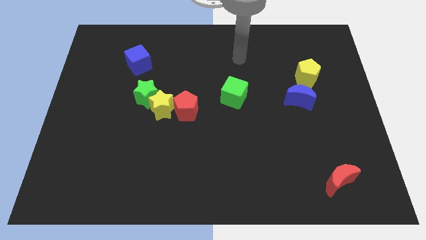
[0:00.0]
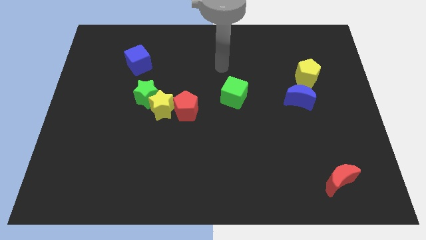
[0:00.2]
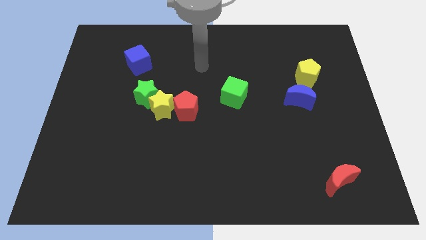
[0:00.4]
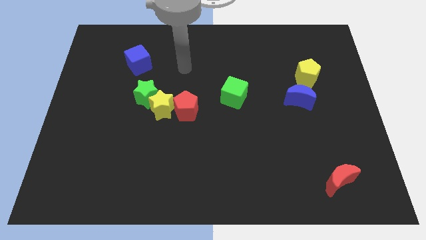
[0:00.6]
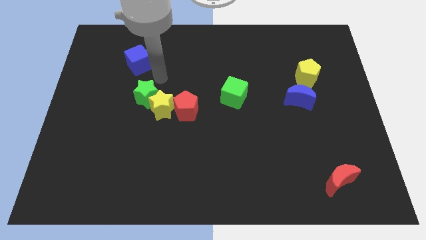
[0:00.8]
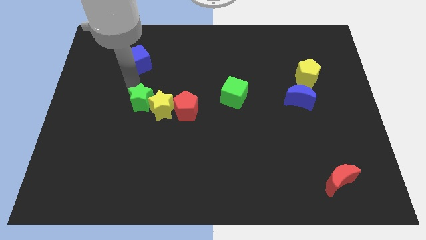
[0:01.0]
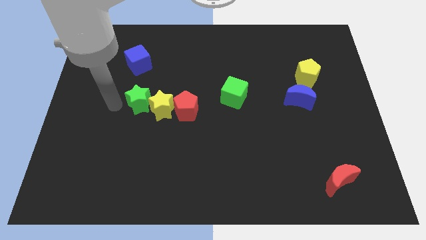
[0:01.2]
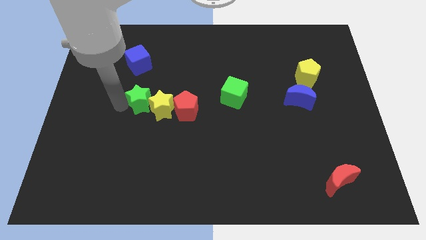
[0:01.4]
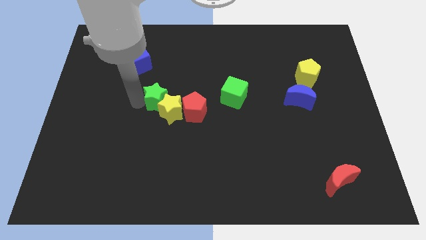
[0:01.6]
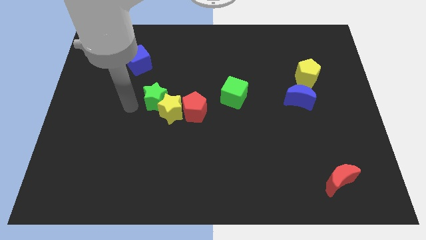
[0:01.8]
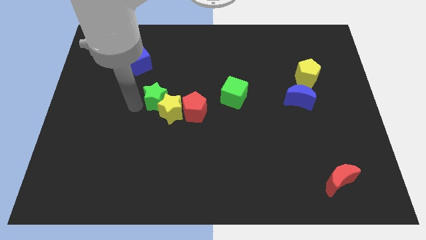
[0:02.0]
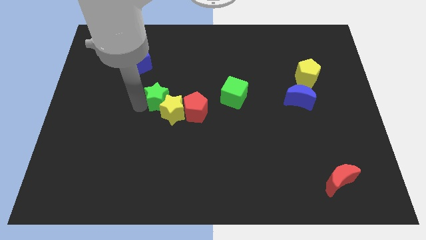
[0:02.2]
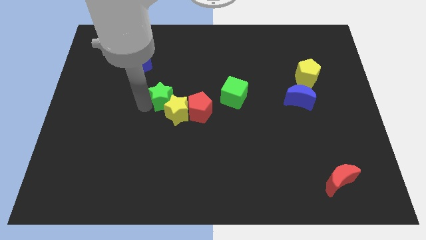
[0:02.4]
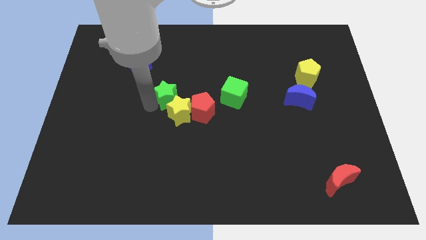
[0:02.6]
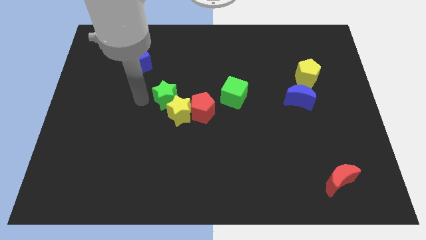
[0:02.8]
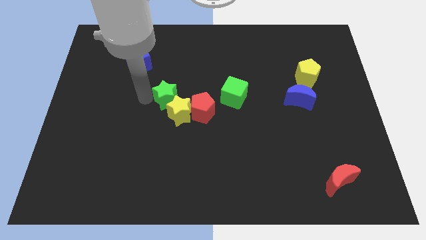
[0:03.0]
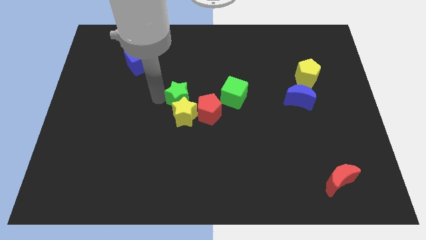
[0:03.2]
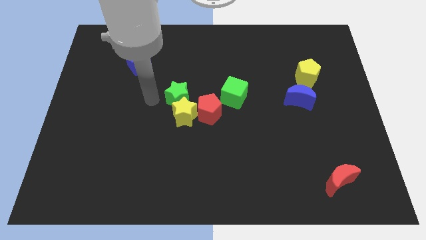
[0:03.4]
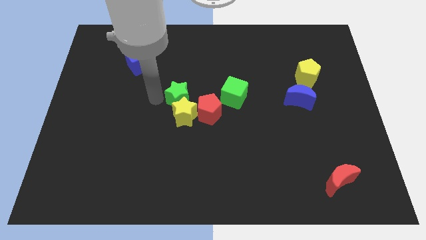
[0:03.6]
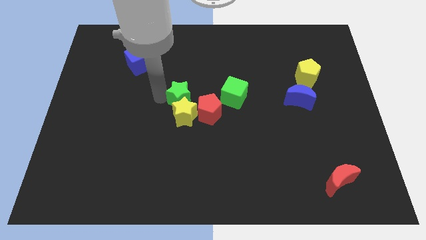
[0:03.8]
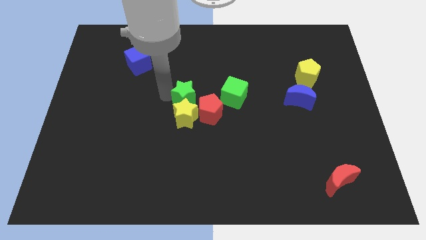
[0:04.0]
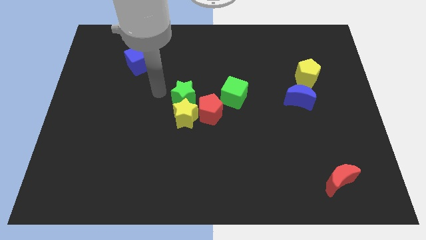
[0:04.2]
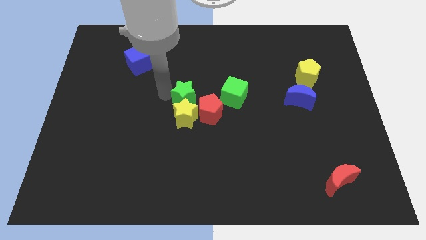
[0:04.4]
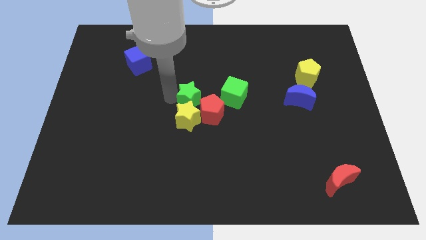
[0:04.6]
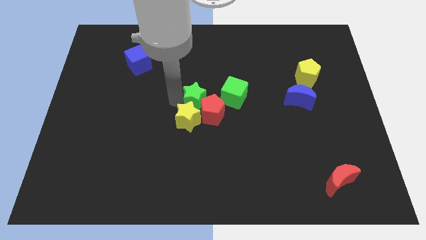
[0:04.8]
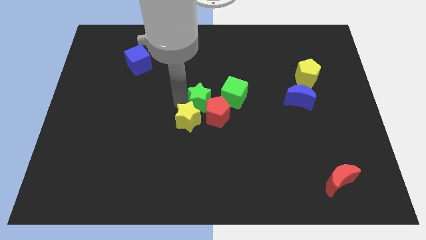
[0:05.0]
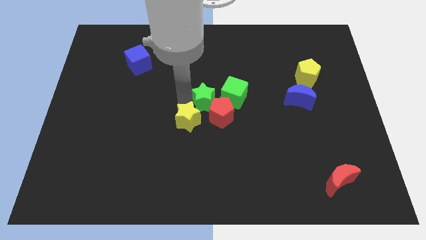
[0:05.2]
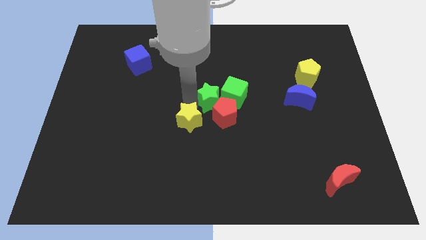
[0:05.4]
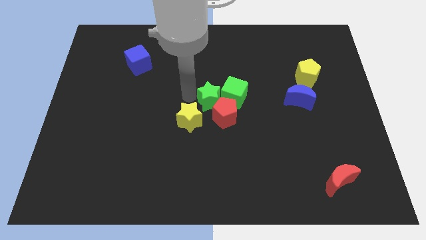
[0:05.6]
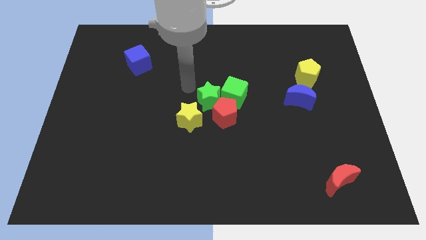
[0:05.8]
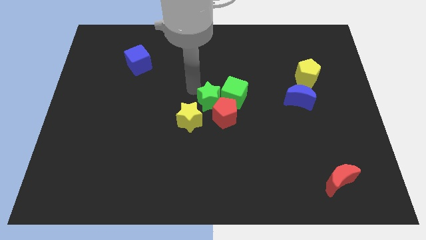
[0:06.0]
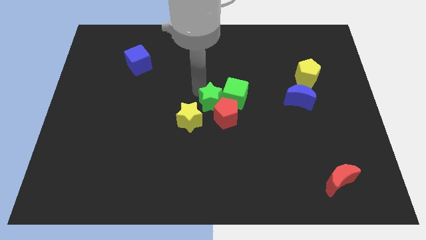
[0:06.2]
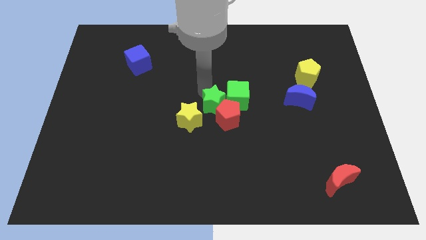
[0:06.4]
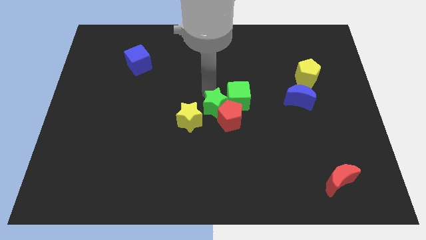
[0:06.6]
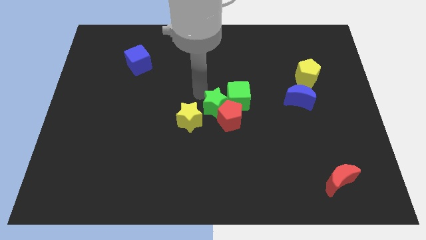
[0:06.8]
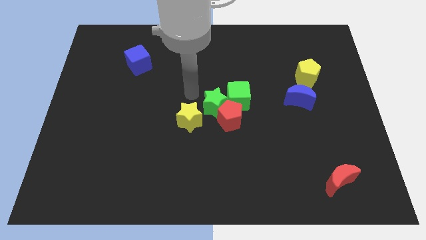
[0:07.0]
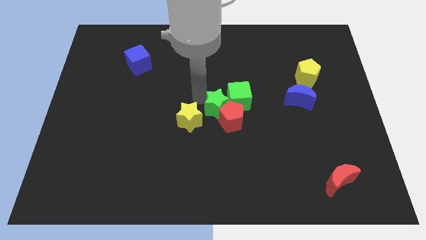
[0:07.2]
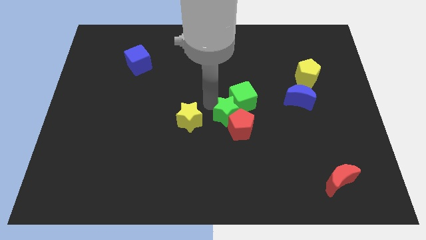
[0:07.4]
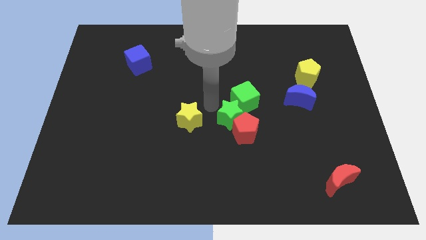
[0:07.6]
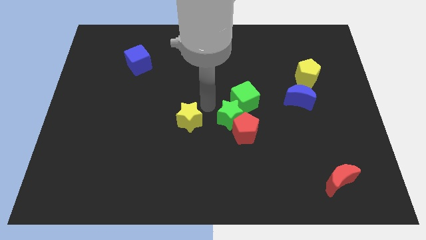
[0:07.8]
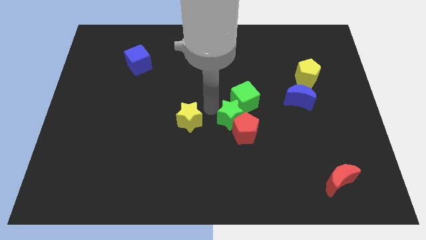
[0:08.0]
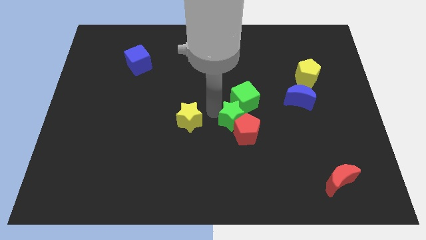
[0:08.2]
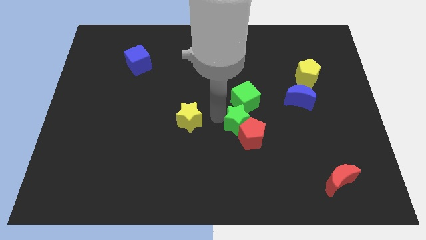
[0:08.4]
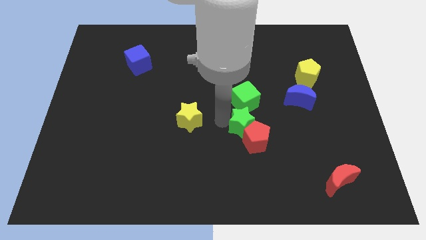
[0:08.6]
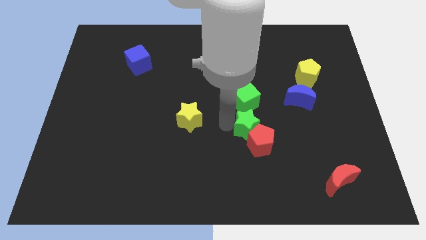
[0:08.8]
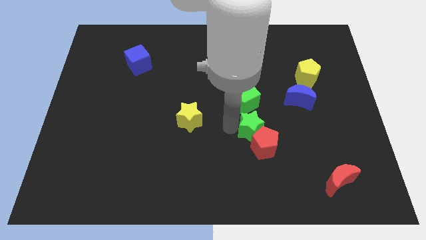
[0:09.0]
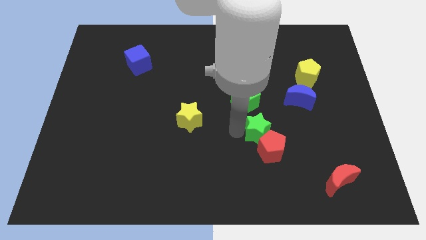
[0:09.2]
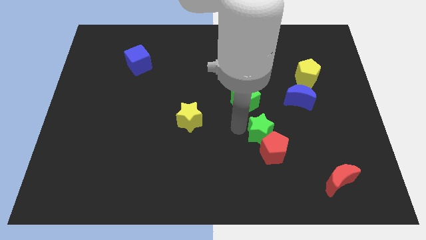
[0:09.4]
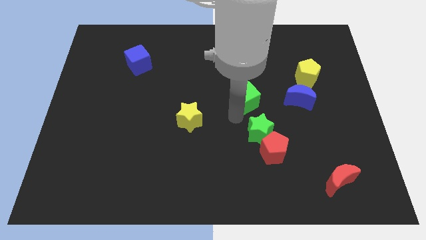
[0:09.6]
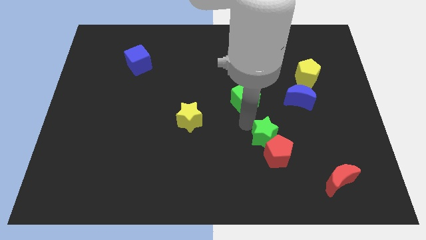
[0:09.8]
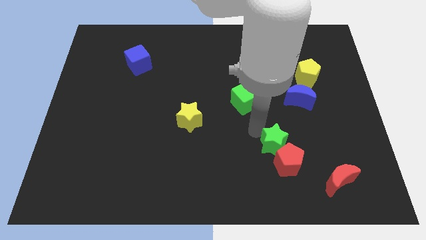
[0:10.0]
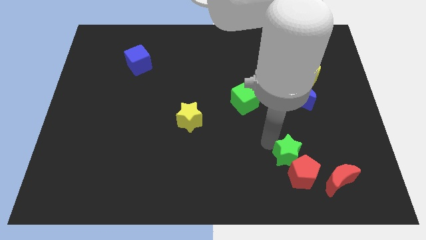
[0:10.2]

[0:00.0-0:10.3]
move the green star diagonally up and to the left of the red moon

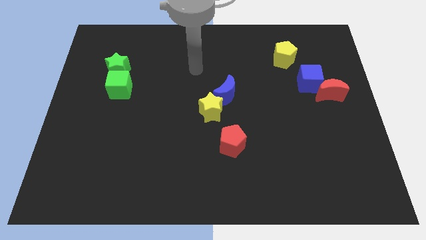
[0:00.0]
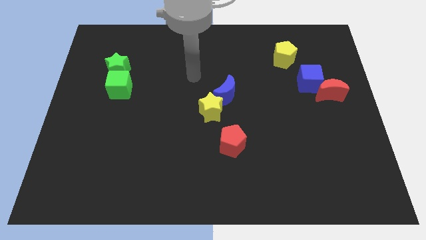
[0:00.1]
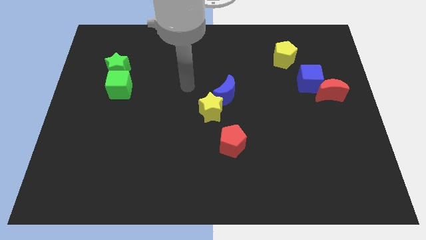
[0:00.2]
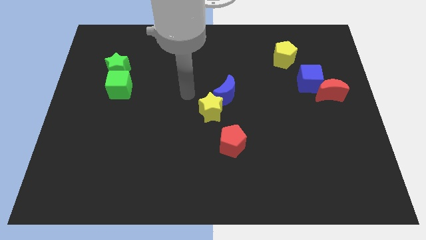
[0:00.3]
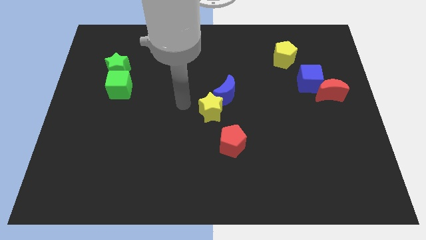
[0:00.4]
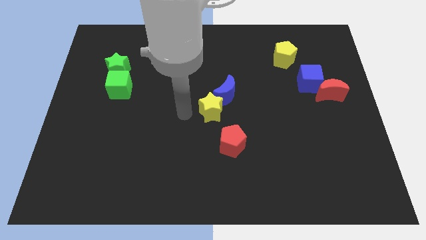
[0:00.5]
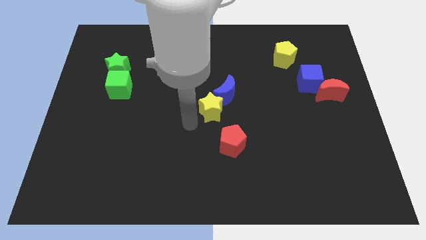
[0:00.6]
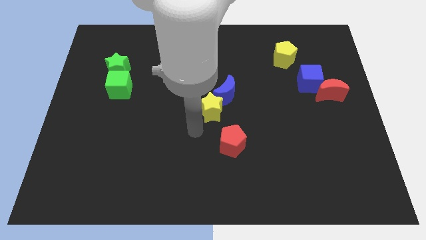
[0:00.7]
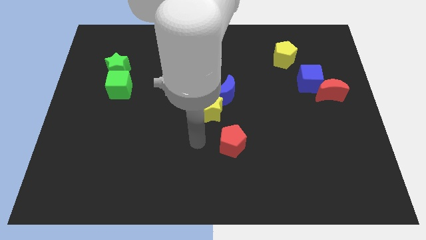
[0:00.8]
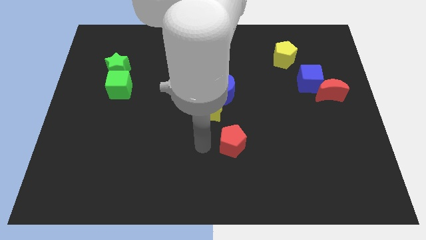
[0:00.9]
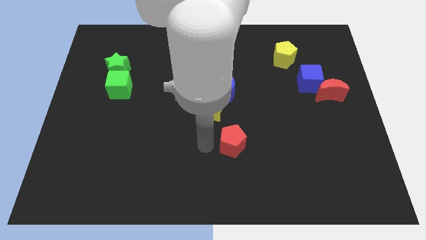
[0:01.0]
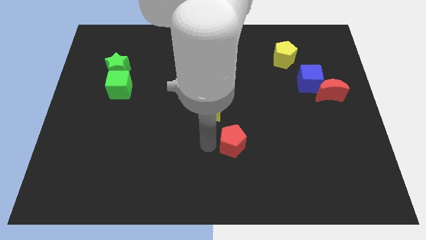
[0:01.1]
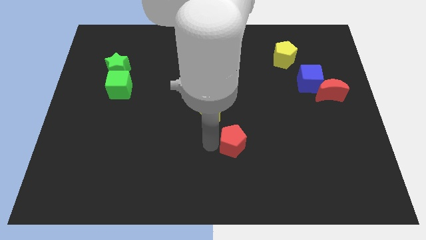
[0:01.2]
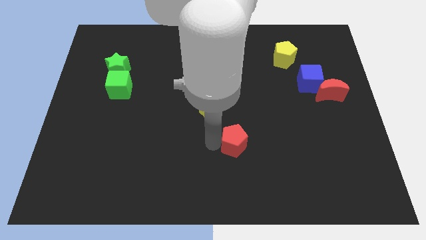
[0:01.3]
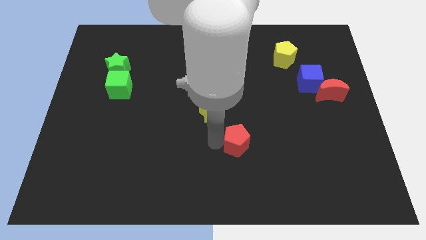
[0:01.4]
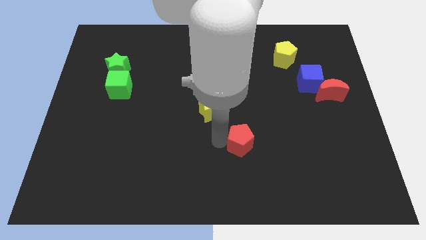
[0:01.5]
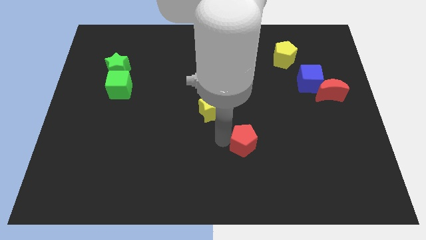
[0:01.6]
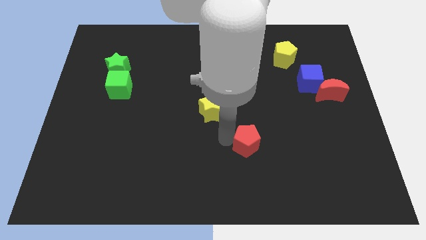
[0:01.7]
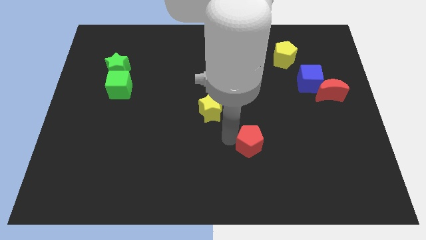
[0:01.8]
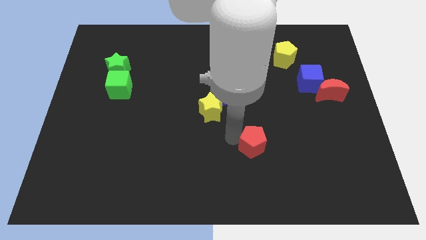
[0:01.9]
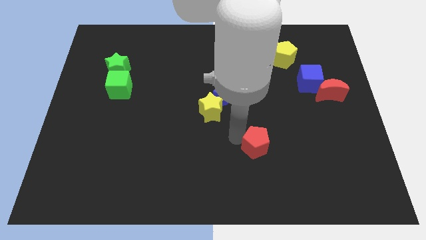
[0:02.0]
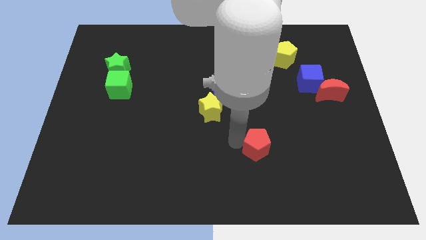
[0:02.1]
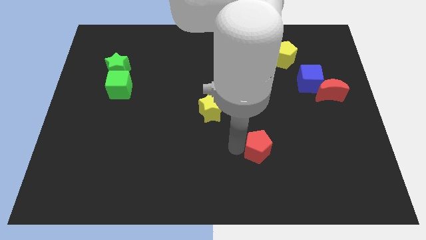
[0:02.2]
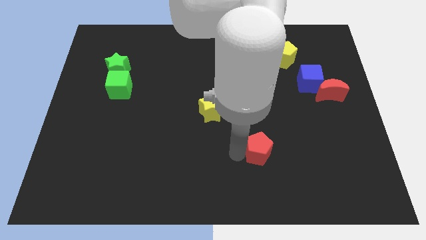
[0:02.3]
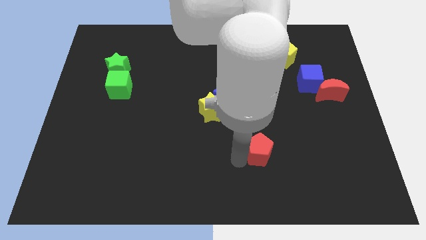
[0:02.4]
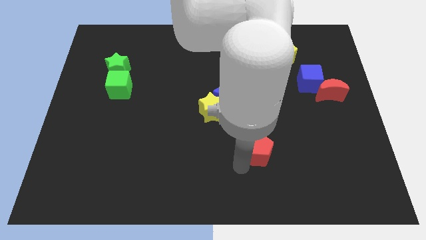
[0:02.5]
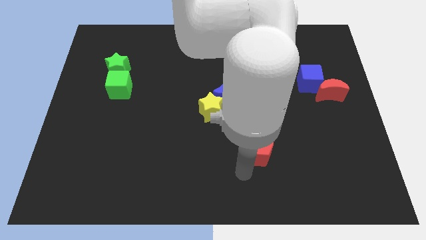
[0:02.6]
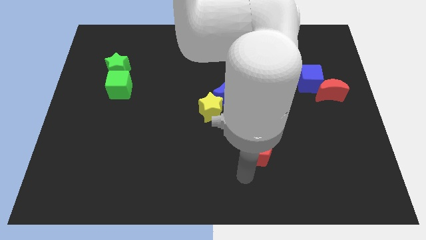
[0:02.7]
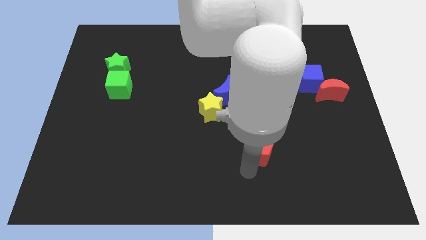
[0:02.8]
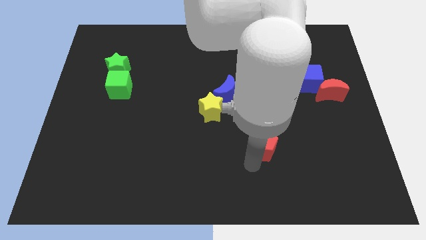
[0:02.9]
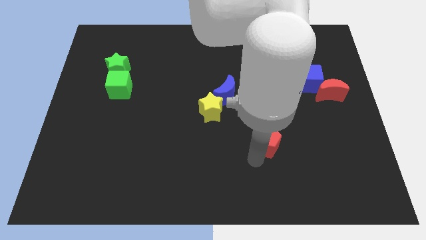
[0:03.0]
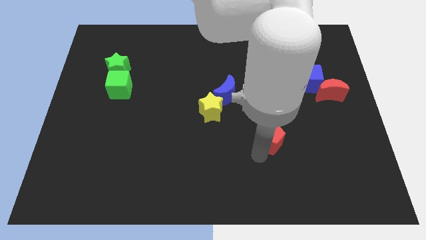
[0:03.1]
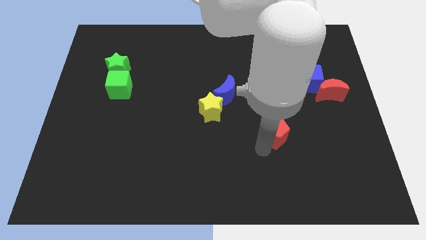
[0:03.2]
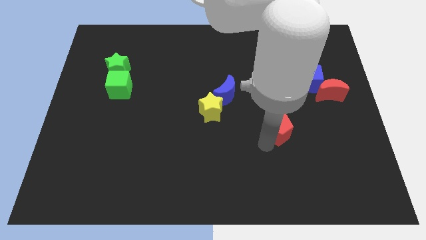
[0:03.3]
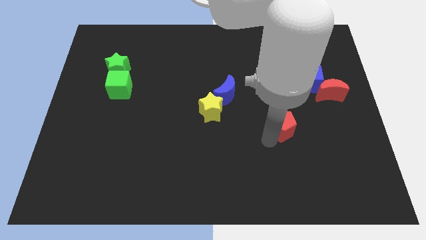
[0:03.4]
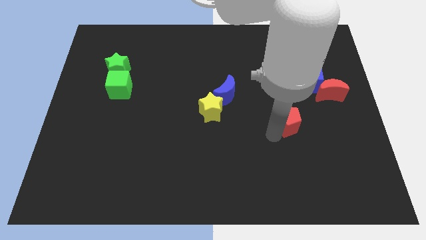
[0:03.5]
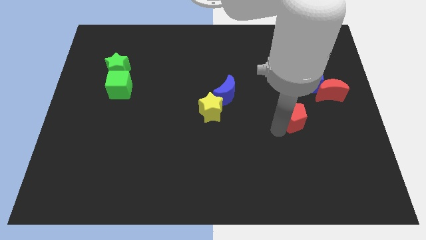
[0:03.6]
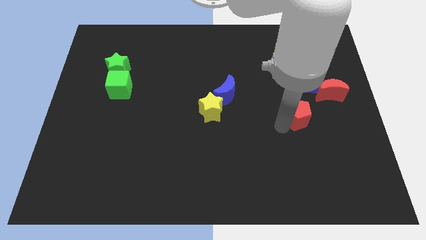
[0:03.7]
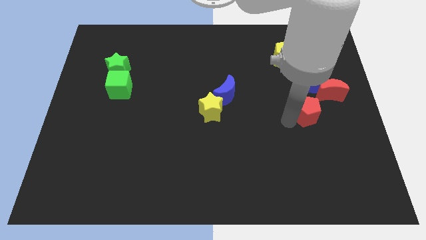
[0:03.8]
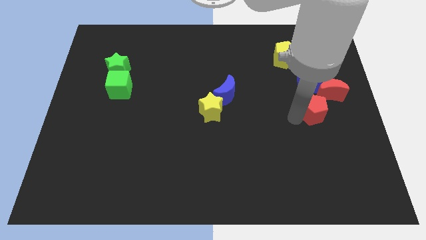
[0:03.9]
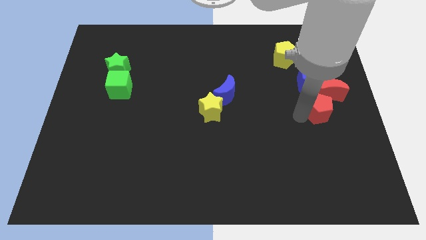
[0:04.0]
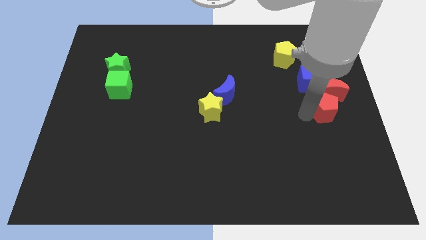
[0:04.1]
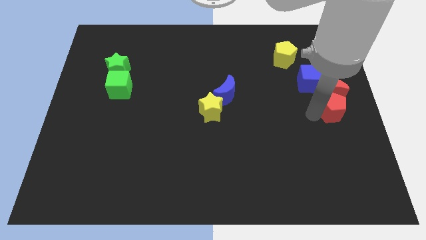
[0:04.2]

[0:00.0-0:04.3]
push the red pentagon diagonally down and to the right of the blue cube
